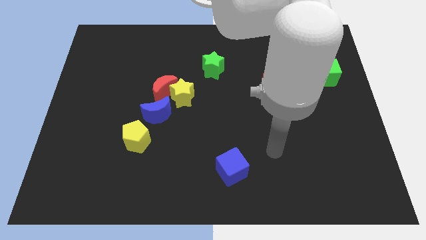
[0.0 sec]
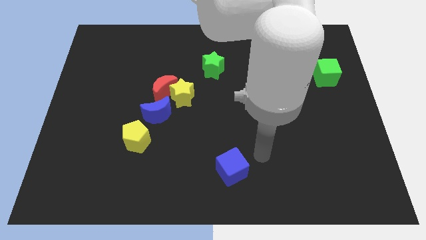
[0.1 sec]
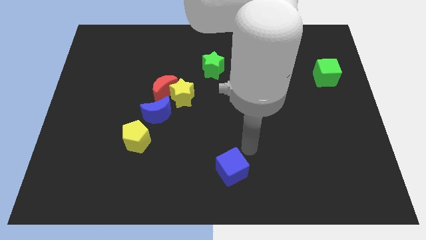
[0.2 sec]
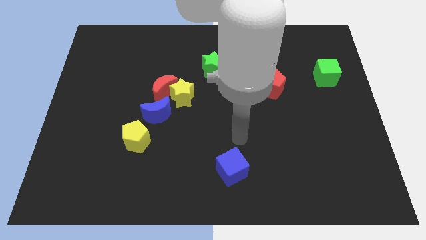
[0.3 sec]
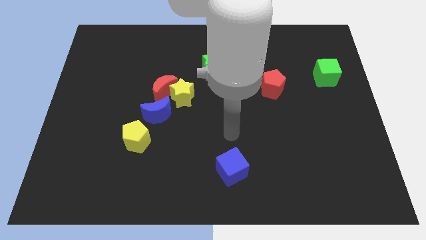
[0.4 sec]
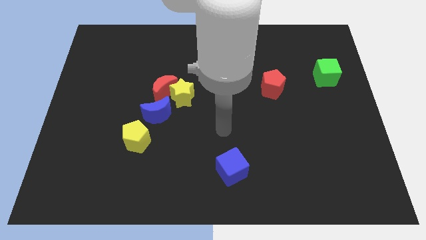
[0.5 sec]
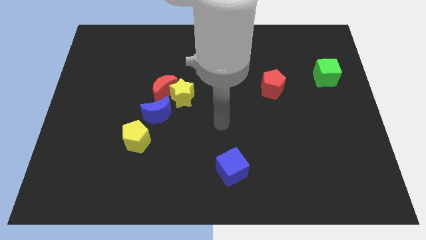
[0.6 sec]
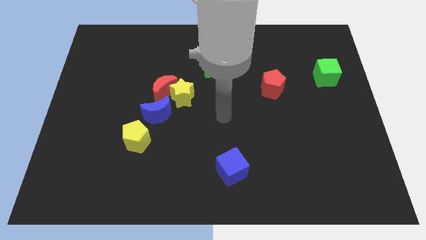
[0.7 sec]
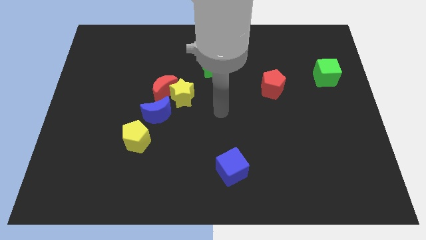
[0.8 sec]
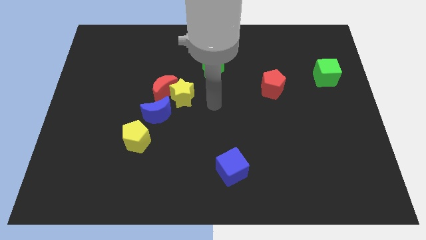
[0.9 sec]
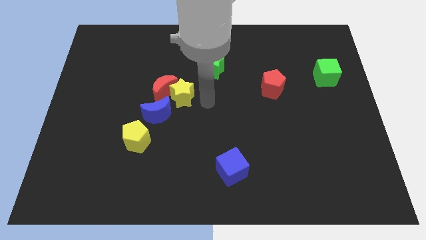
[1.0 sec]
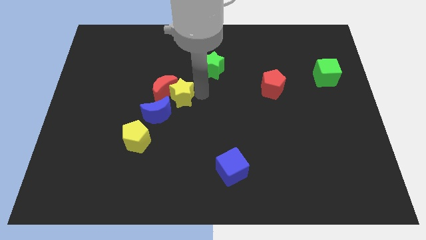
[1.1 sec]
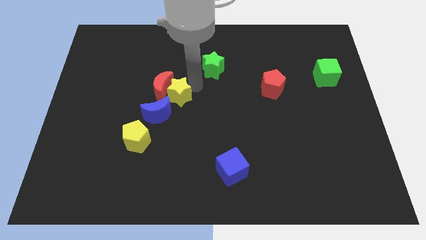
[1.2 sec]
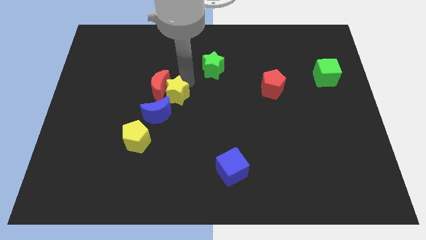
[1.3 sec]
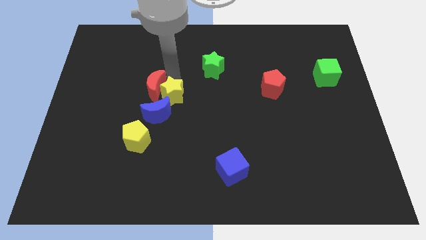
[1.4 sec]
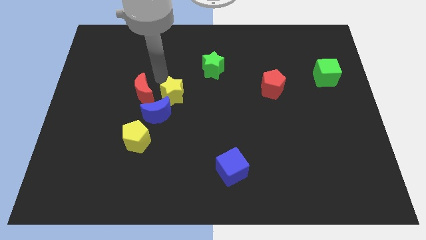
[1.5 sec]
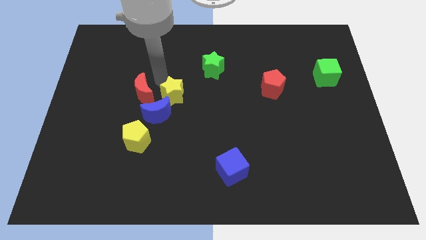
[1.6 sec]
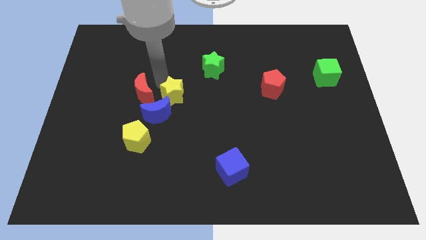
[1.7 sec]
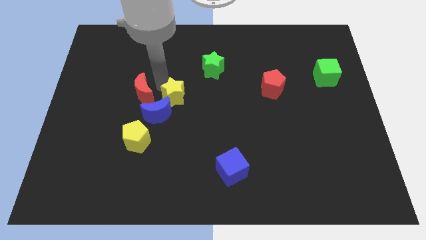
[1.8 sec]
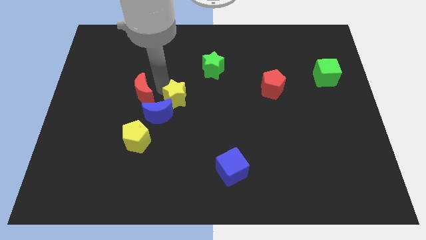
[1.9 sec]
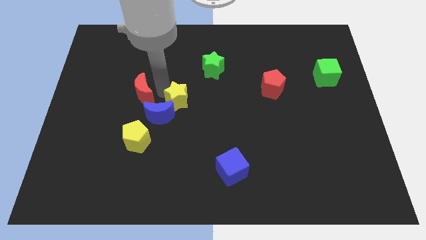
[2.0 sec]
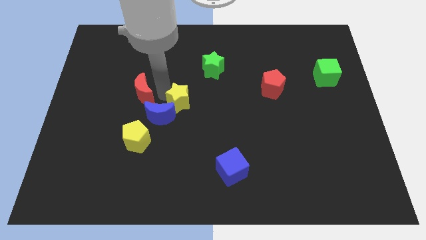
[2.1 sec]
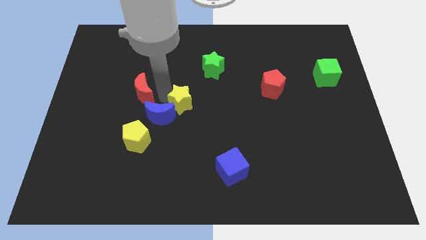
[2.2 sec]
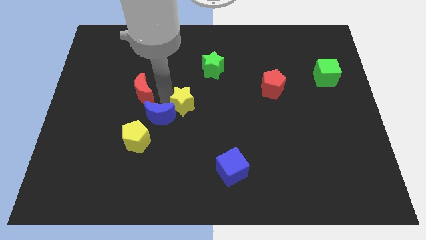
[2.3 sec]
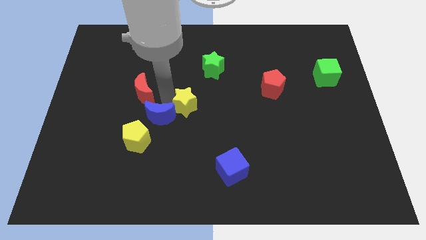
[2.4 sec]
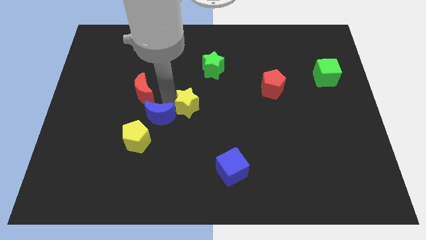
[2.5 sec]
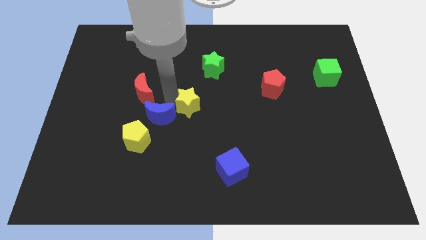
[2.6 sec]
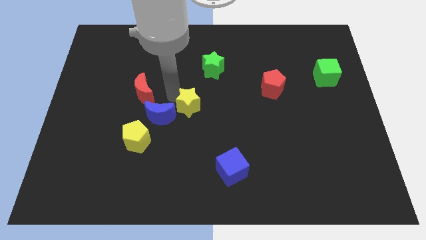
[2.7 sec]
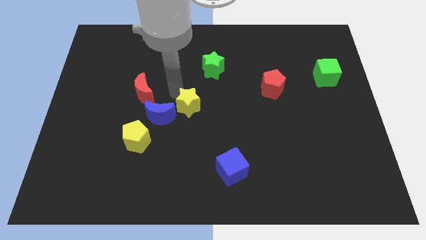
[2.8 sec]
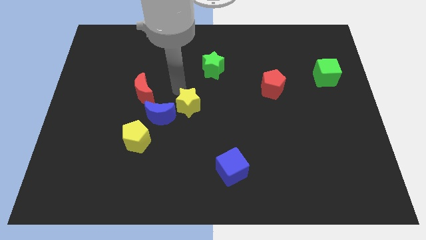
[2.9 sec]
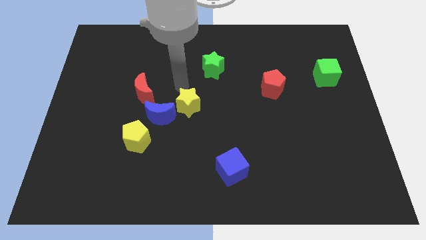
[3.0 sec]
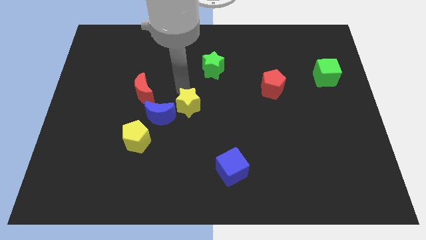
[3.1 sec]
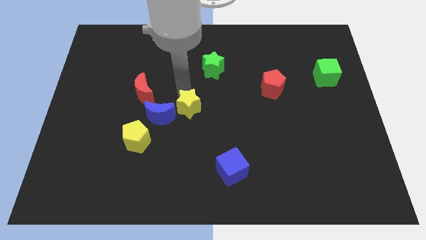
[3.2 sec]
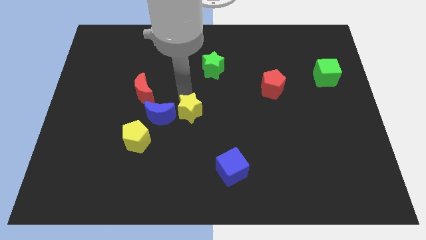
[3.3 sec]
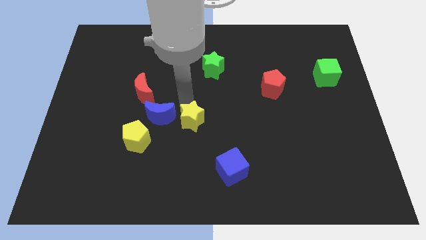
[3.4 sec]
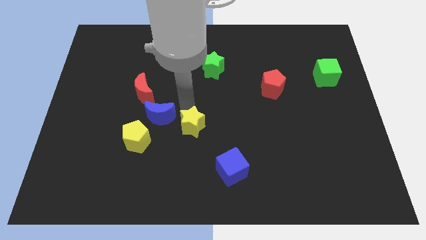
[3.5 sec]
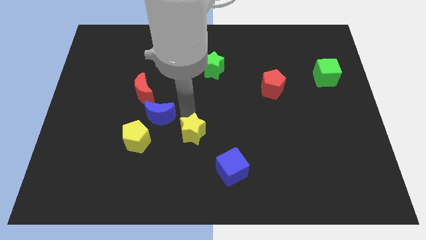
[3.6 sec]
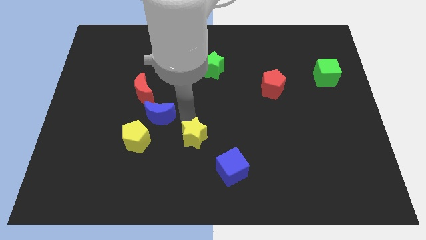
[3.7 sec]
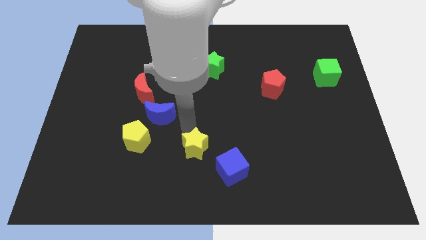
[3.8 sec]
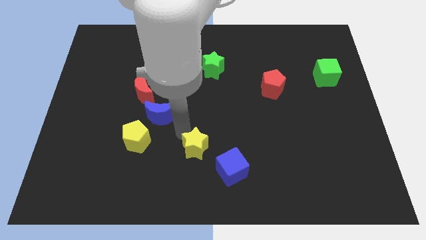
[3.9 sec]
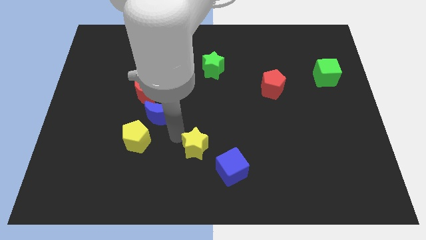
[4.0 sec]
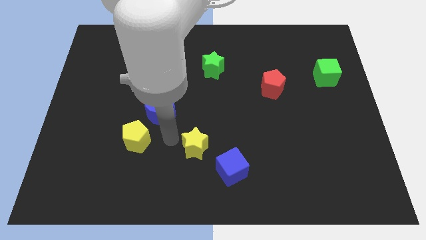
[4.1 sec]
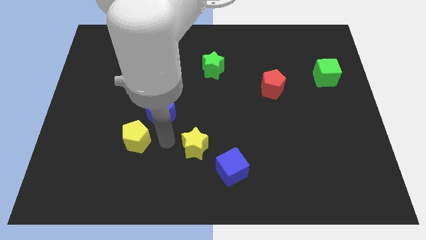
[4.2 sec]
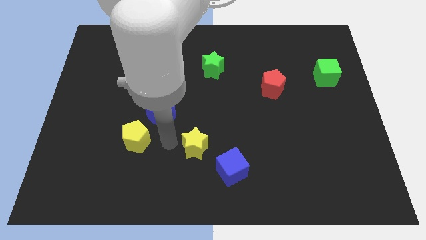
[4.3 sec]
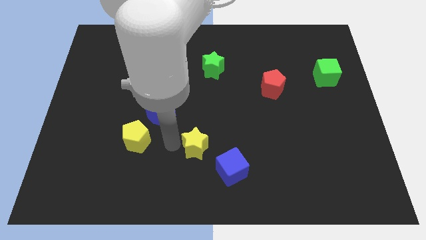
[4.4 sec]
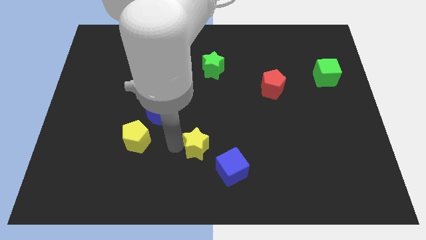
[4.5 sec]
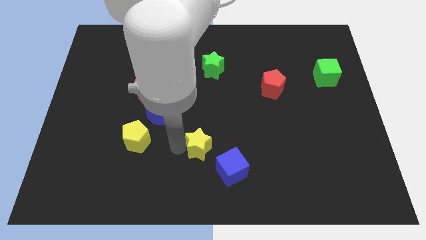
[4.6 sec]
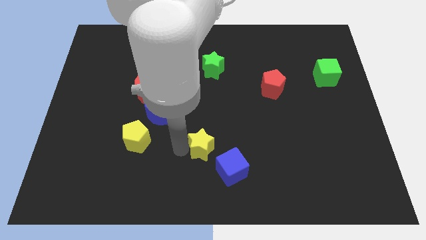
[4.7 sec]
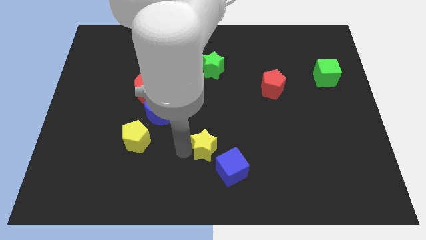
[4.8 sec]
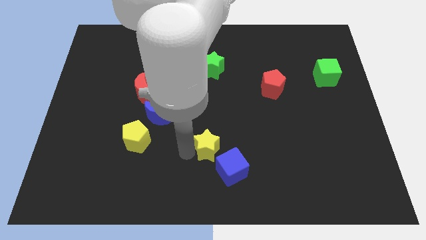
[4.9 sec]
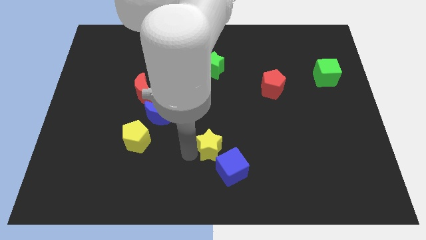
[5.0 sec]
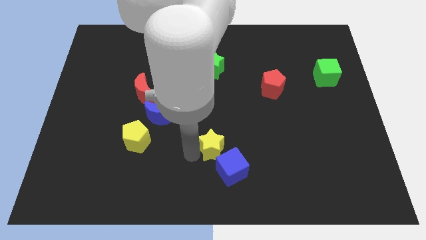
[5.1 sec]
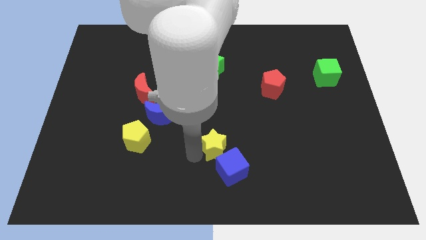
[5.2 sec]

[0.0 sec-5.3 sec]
put the yellow star close to the blue cube

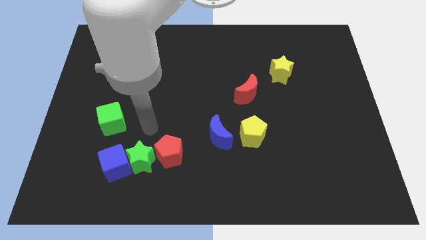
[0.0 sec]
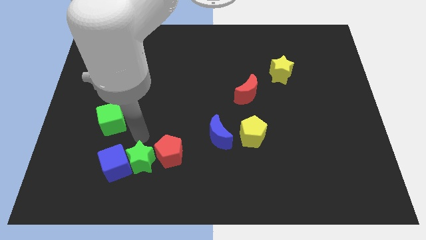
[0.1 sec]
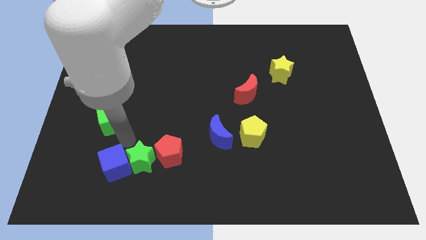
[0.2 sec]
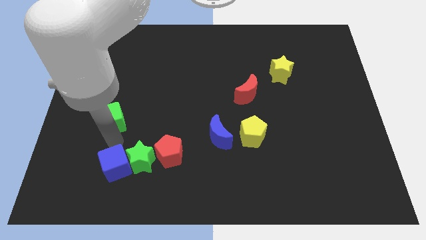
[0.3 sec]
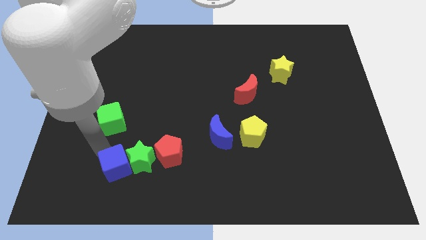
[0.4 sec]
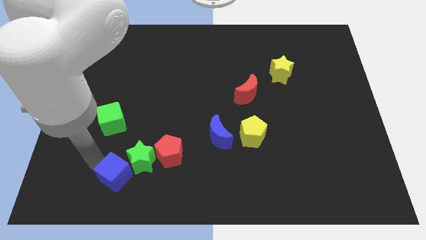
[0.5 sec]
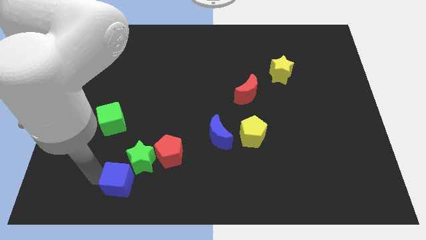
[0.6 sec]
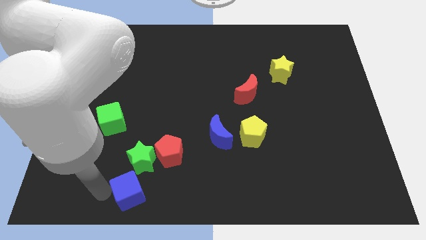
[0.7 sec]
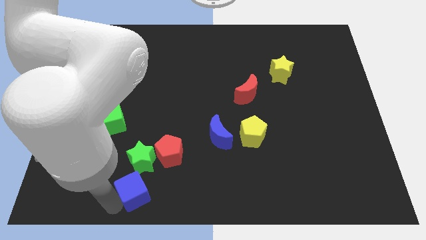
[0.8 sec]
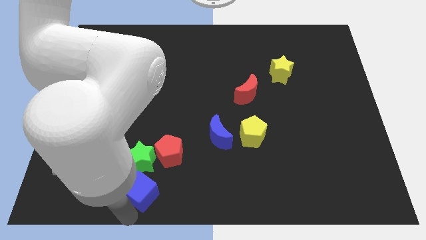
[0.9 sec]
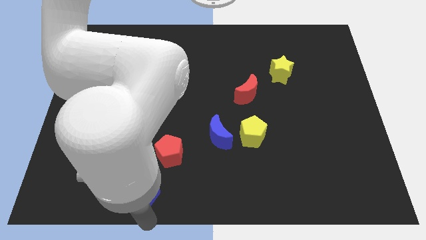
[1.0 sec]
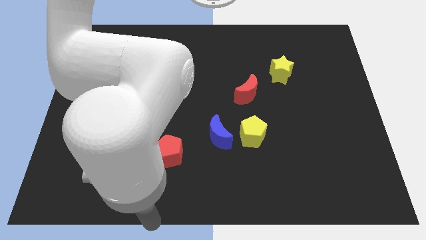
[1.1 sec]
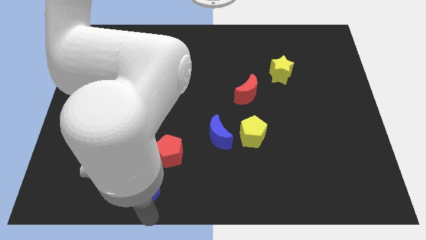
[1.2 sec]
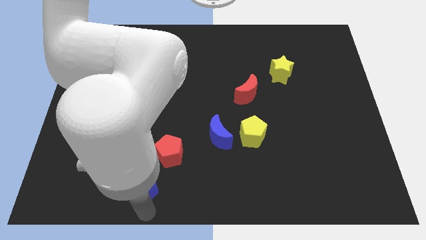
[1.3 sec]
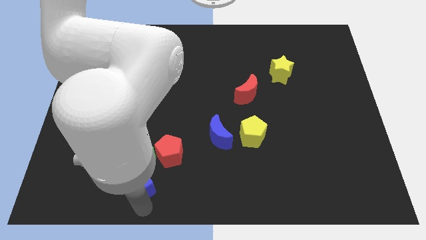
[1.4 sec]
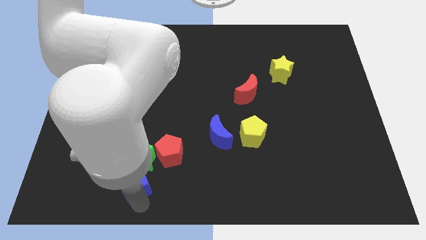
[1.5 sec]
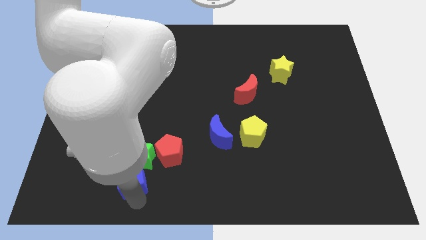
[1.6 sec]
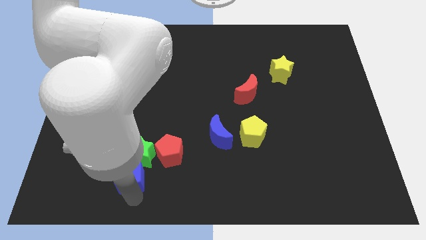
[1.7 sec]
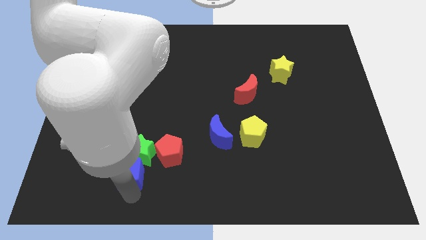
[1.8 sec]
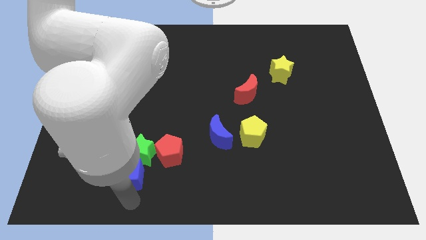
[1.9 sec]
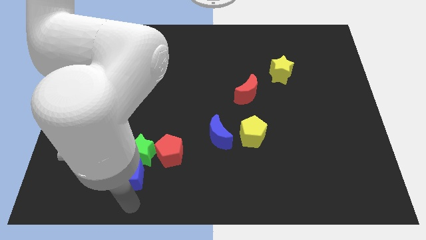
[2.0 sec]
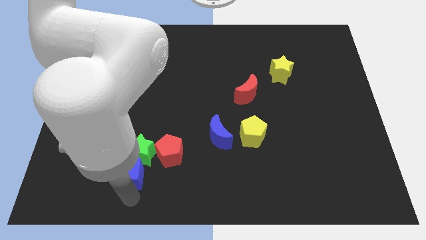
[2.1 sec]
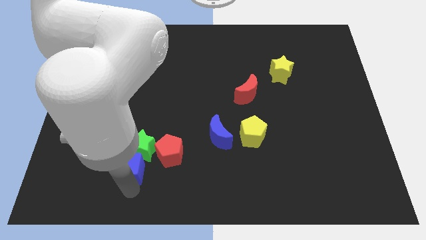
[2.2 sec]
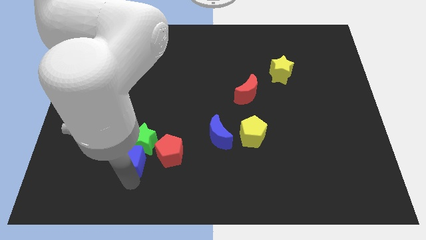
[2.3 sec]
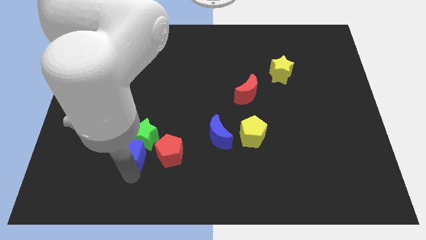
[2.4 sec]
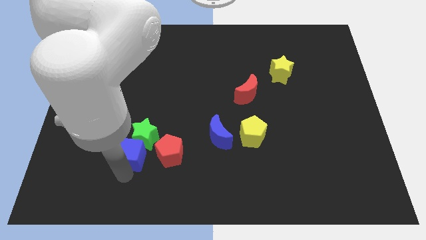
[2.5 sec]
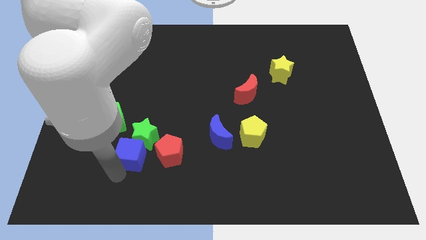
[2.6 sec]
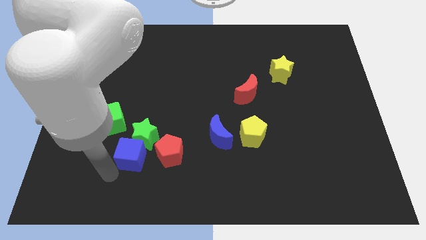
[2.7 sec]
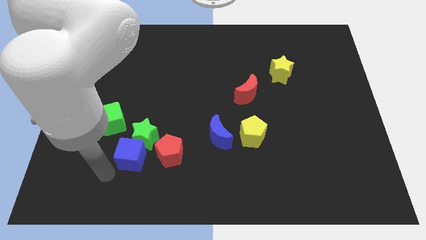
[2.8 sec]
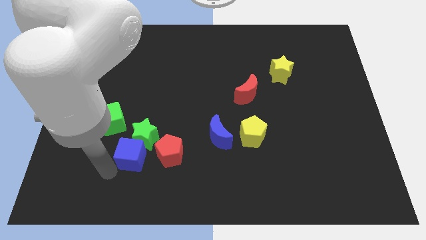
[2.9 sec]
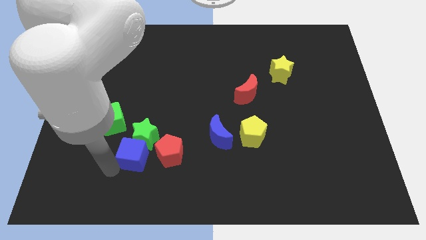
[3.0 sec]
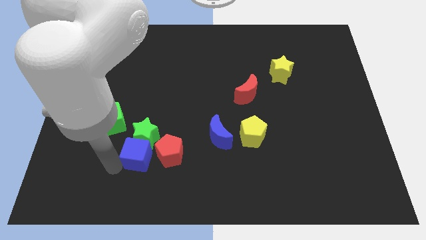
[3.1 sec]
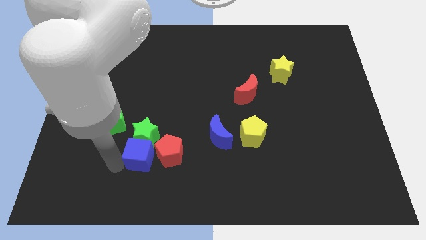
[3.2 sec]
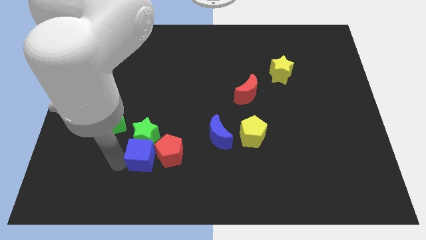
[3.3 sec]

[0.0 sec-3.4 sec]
push the blue cube towards the red pentagon
